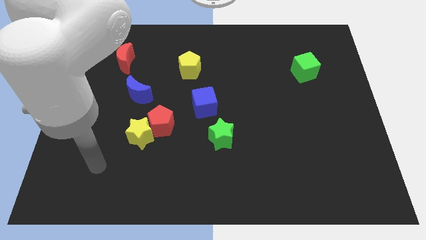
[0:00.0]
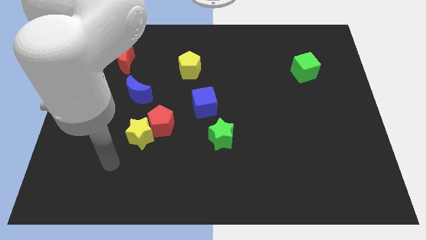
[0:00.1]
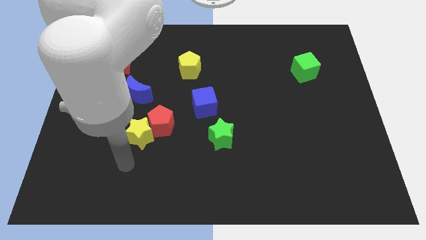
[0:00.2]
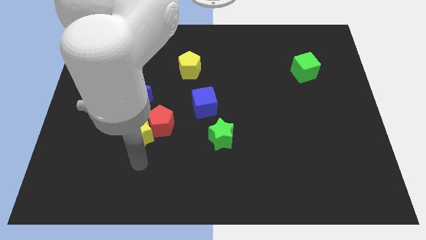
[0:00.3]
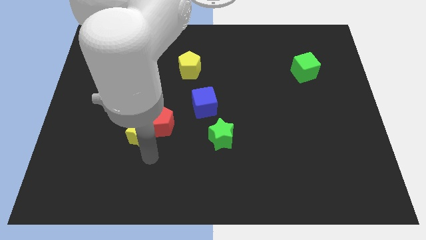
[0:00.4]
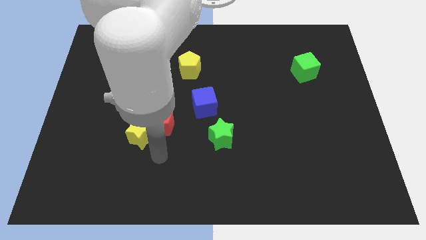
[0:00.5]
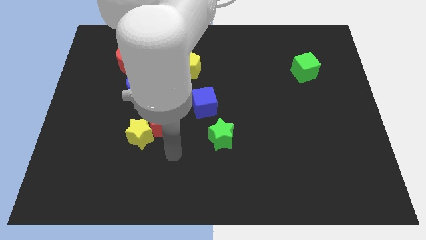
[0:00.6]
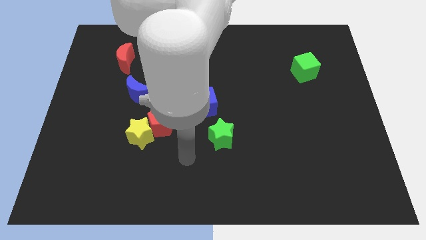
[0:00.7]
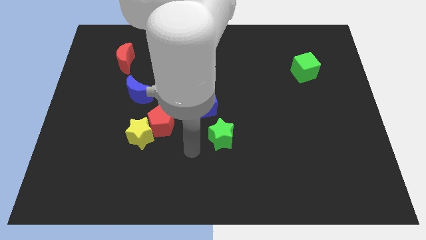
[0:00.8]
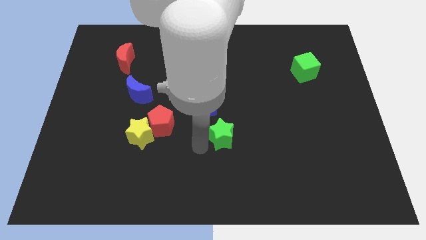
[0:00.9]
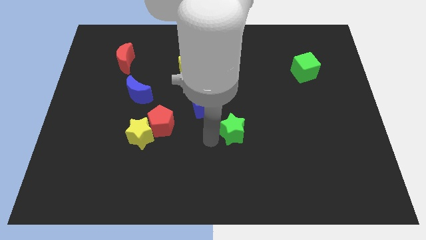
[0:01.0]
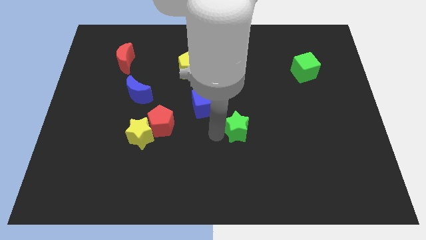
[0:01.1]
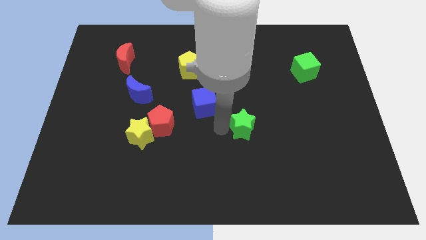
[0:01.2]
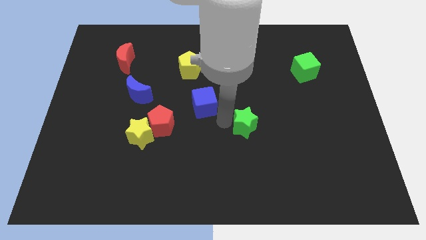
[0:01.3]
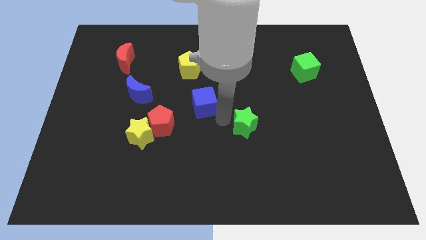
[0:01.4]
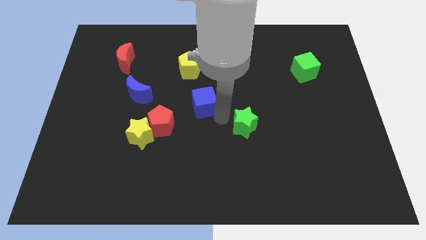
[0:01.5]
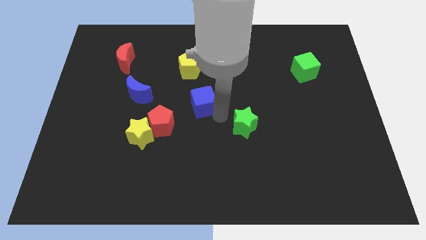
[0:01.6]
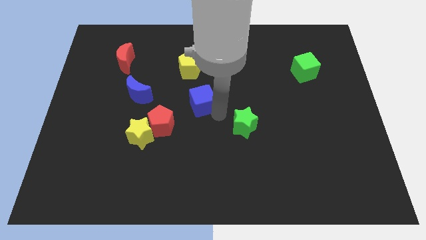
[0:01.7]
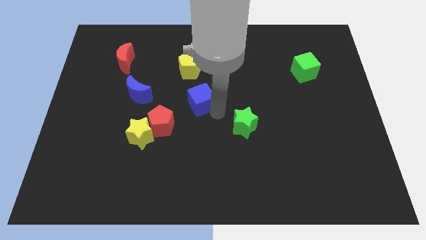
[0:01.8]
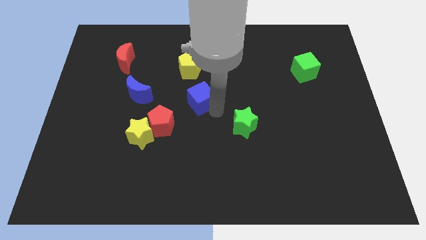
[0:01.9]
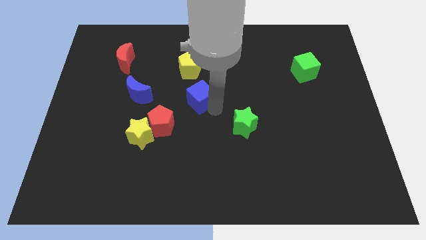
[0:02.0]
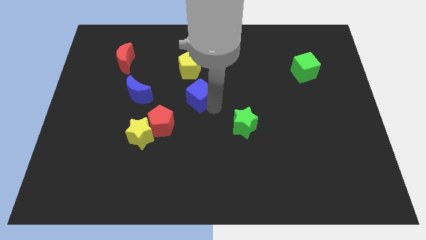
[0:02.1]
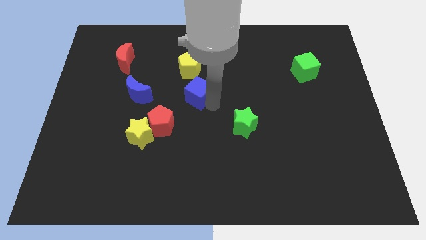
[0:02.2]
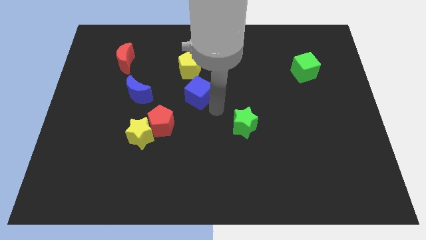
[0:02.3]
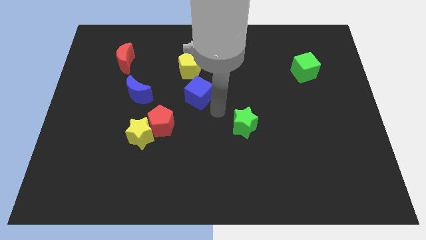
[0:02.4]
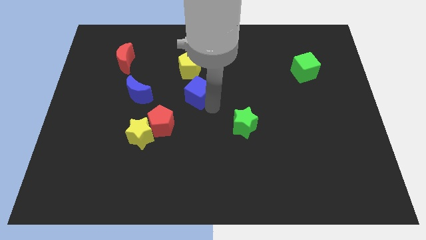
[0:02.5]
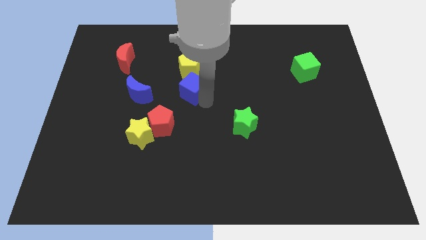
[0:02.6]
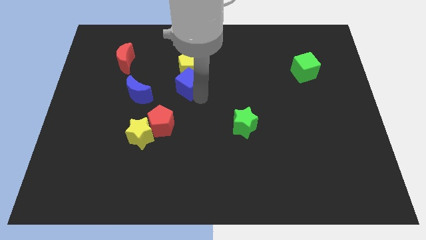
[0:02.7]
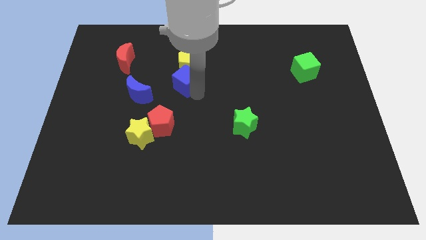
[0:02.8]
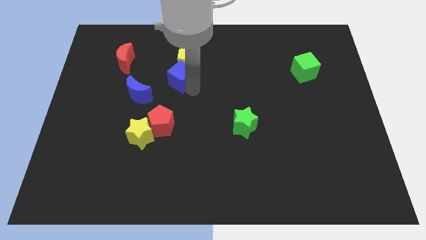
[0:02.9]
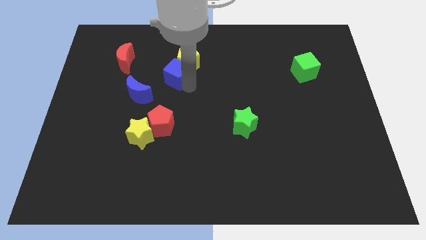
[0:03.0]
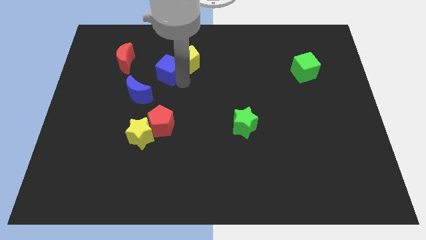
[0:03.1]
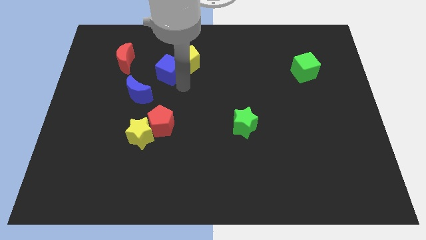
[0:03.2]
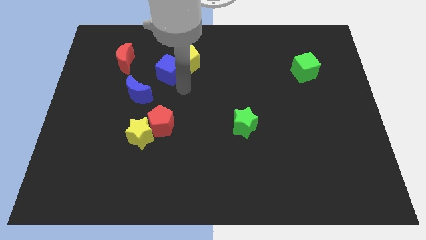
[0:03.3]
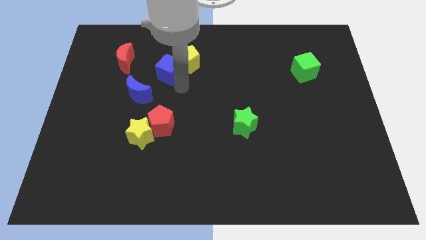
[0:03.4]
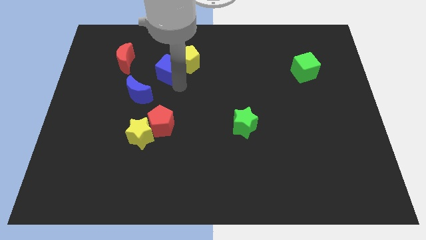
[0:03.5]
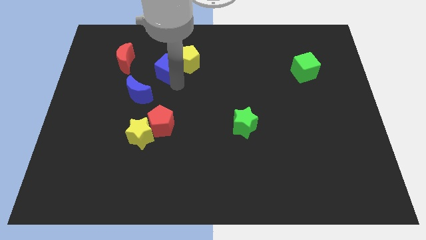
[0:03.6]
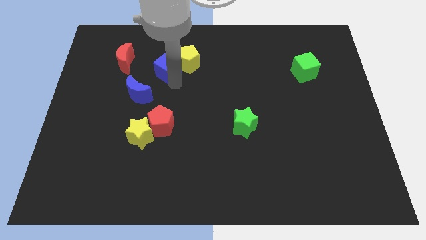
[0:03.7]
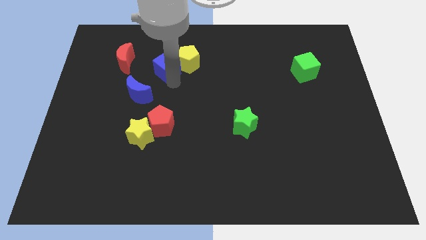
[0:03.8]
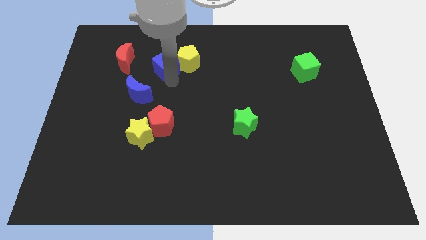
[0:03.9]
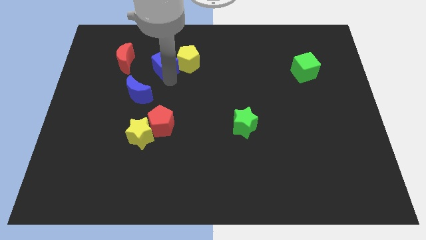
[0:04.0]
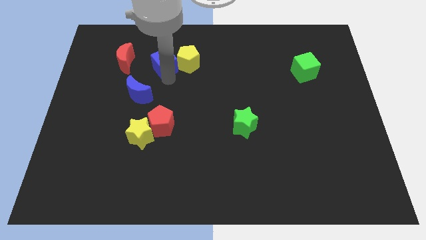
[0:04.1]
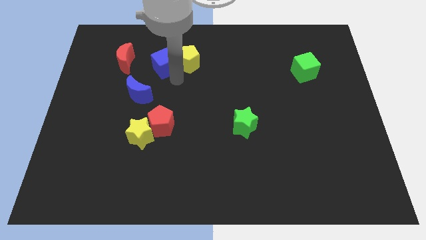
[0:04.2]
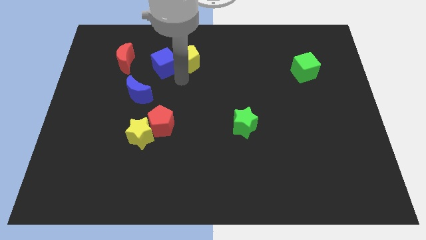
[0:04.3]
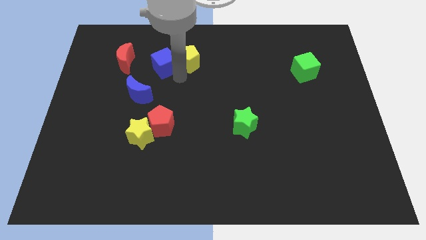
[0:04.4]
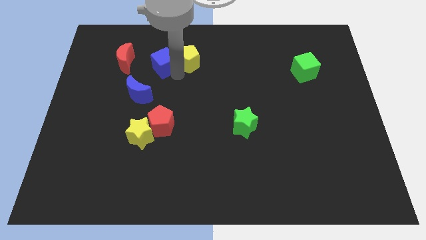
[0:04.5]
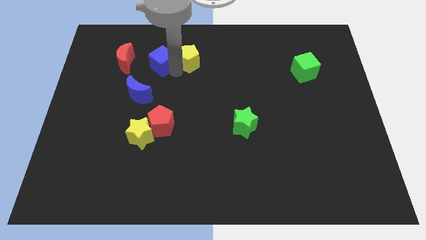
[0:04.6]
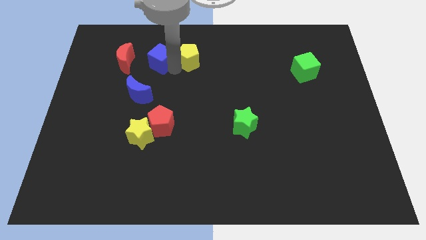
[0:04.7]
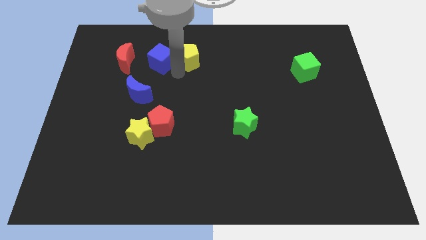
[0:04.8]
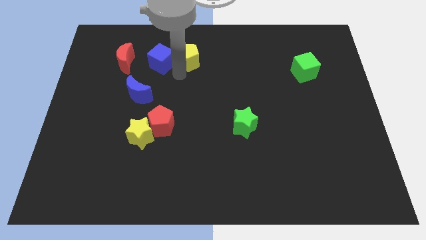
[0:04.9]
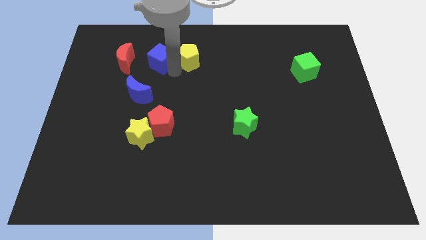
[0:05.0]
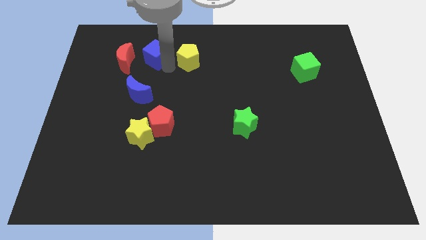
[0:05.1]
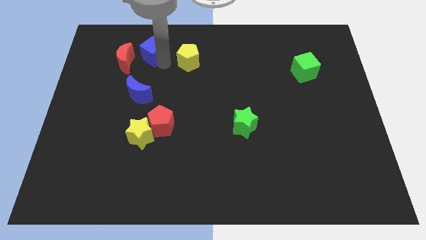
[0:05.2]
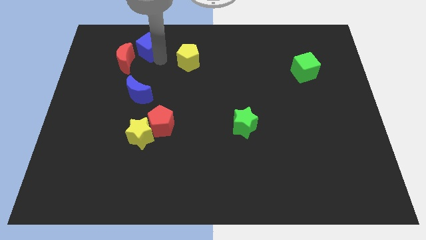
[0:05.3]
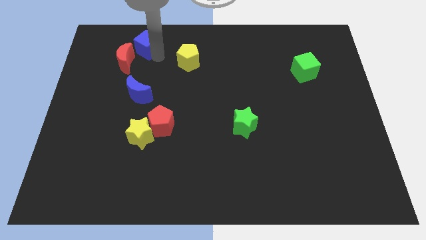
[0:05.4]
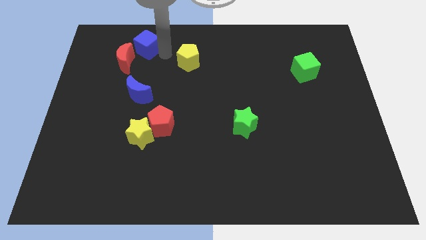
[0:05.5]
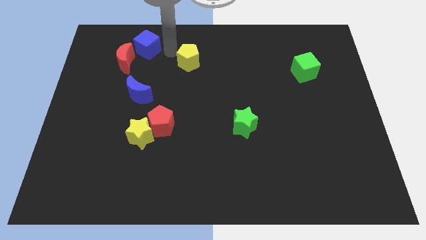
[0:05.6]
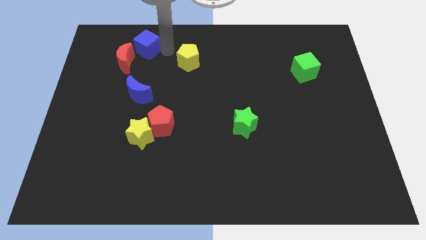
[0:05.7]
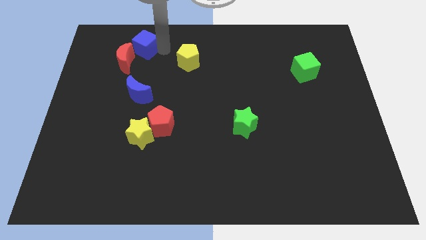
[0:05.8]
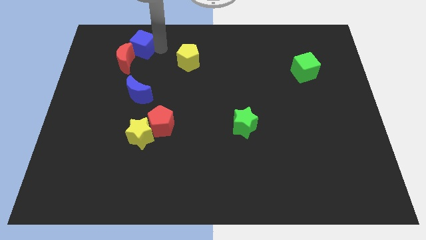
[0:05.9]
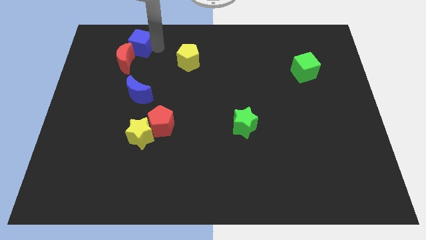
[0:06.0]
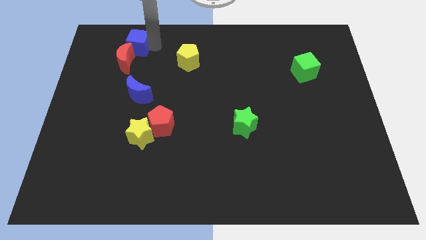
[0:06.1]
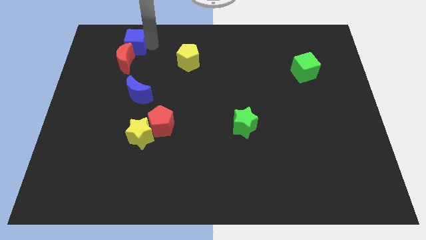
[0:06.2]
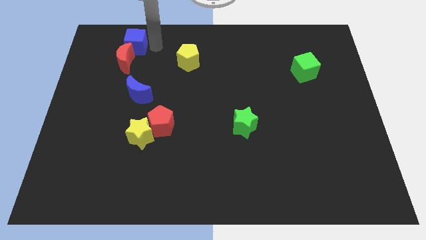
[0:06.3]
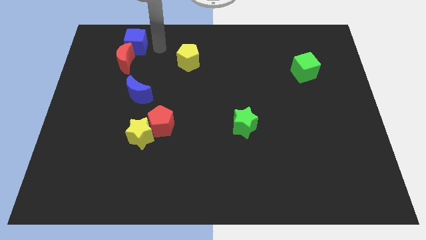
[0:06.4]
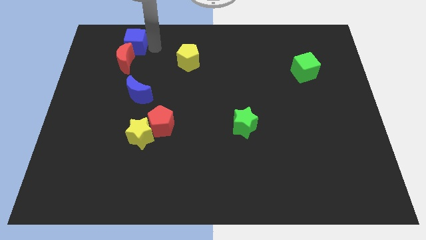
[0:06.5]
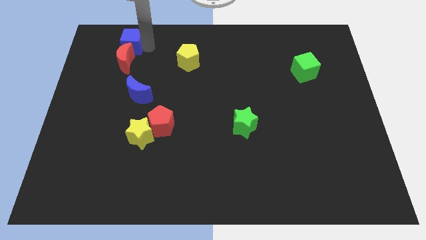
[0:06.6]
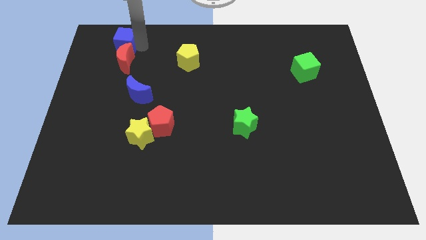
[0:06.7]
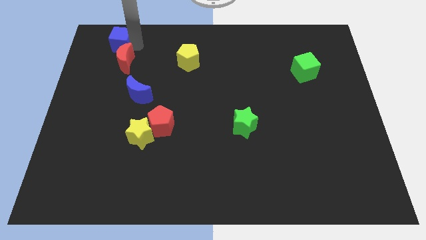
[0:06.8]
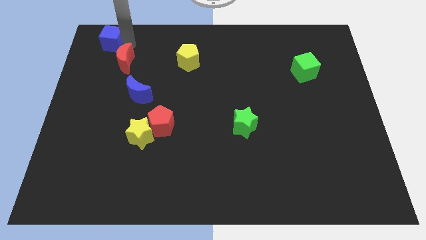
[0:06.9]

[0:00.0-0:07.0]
push the blue cube to the top left corner
